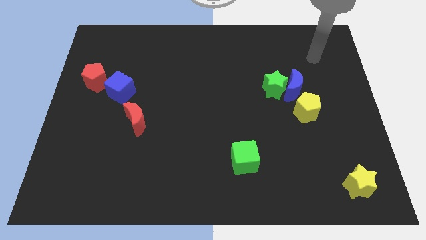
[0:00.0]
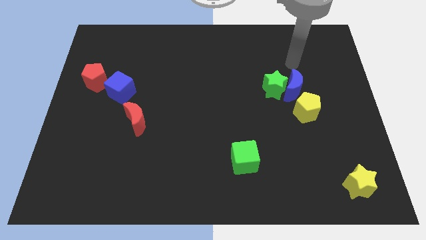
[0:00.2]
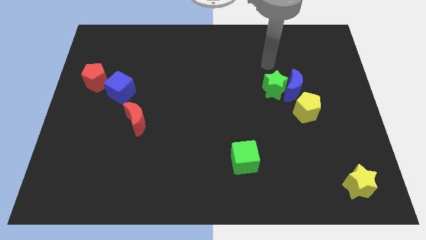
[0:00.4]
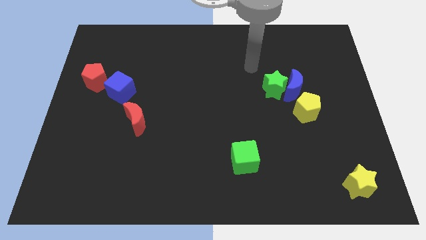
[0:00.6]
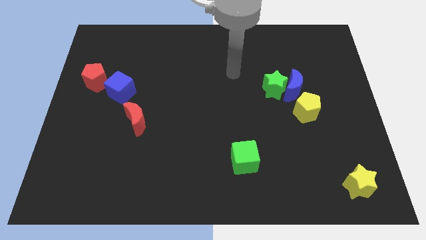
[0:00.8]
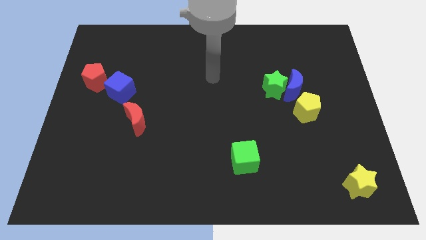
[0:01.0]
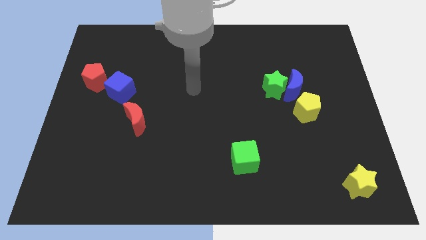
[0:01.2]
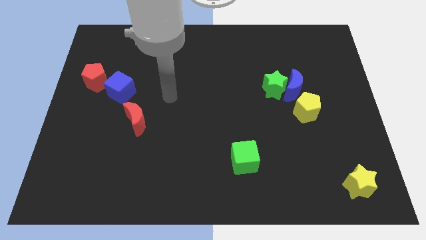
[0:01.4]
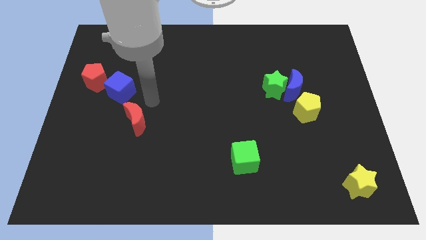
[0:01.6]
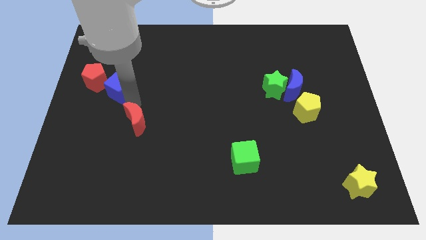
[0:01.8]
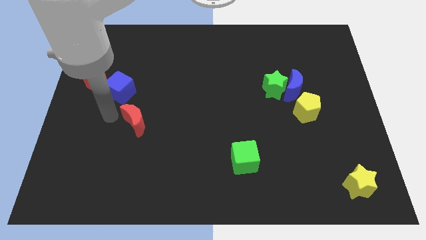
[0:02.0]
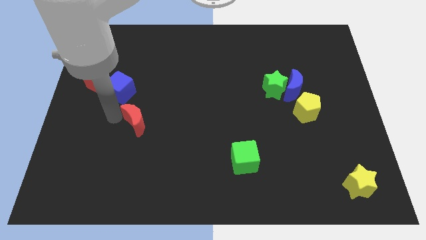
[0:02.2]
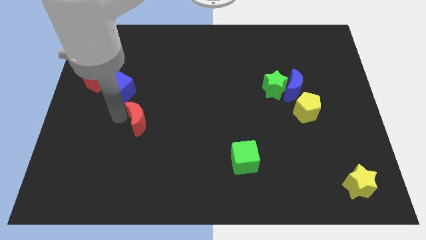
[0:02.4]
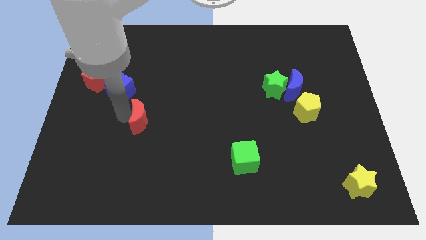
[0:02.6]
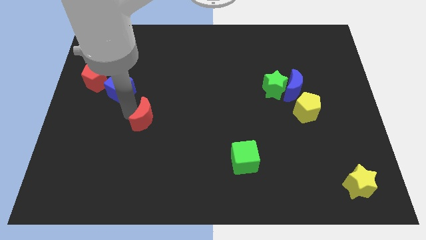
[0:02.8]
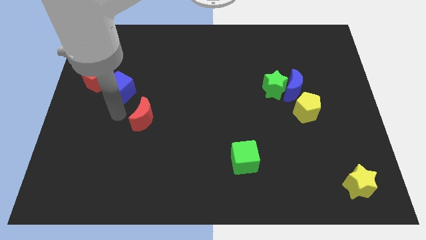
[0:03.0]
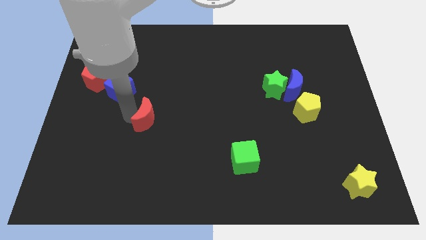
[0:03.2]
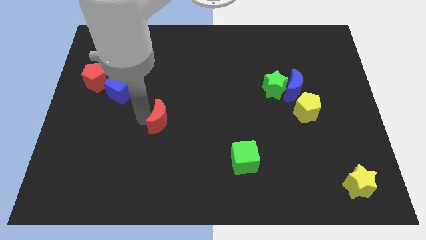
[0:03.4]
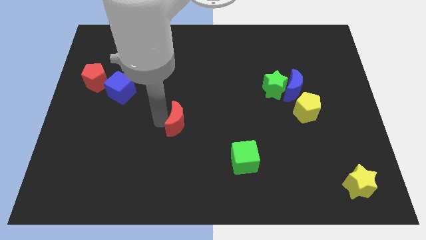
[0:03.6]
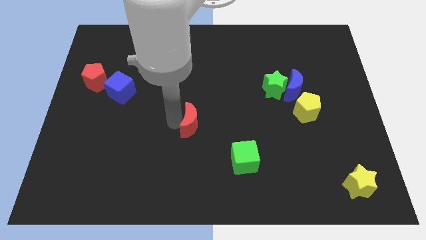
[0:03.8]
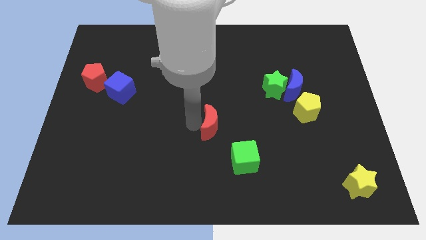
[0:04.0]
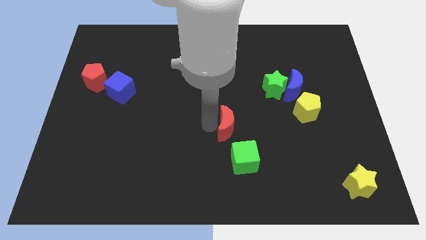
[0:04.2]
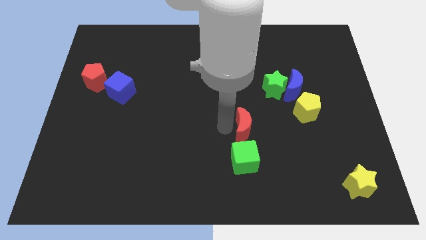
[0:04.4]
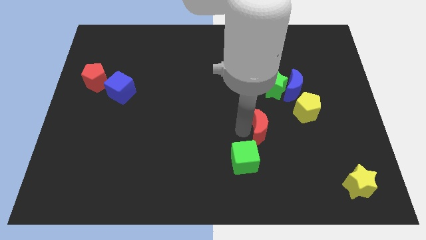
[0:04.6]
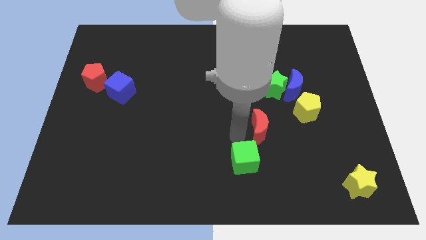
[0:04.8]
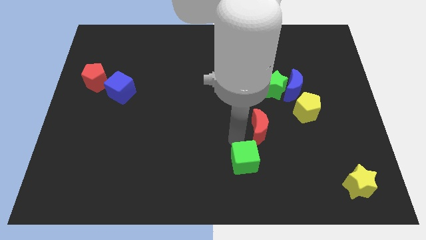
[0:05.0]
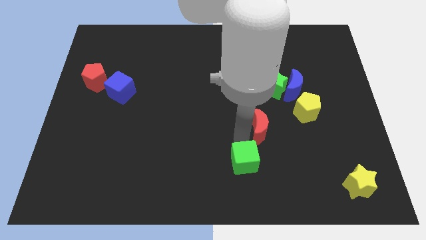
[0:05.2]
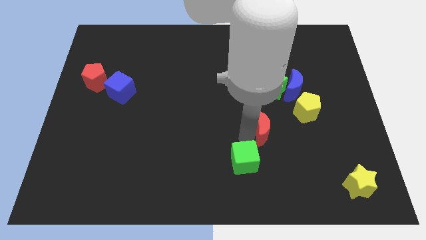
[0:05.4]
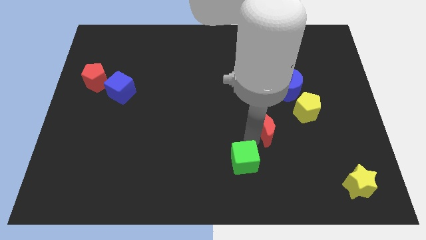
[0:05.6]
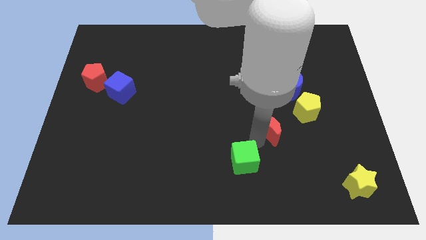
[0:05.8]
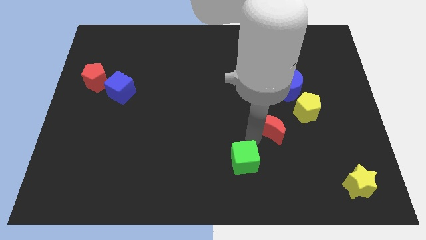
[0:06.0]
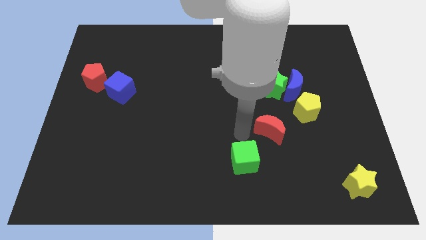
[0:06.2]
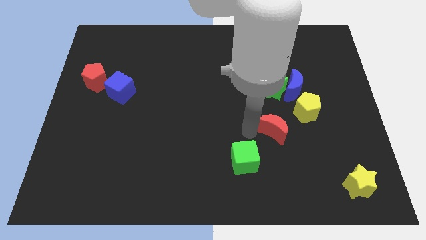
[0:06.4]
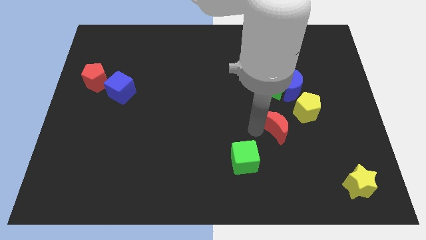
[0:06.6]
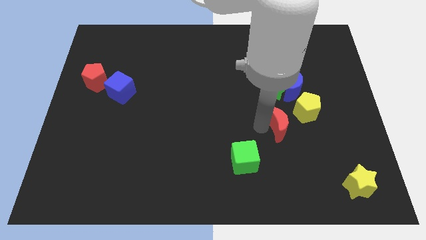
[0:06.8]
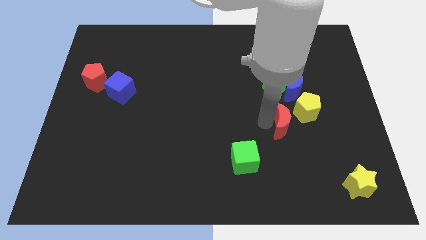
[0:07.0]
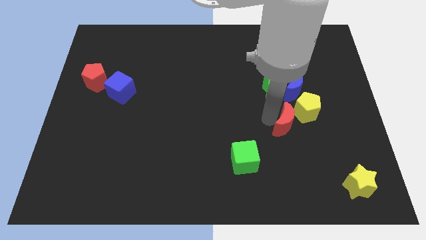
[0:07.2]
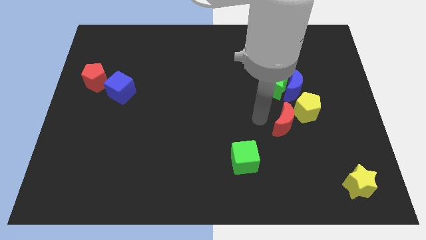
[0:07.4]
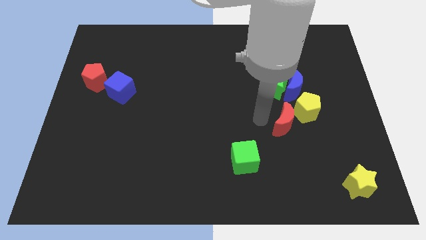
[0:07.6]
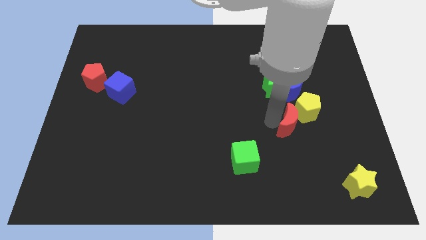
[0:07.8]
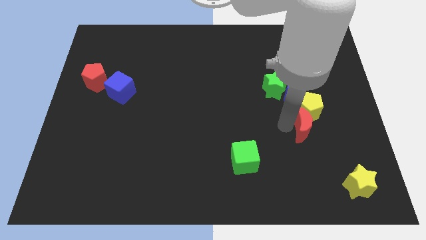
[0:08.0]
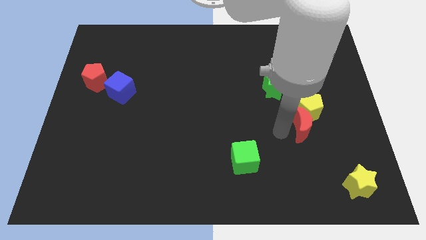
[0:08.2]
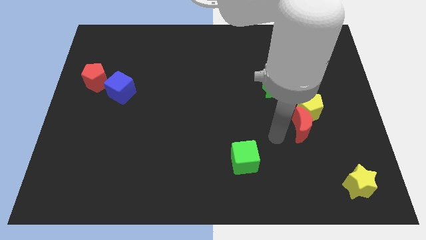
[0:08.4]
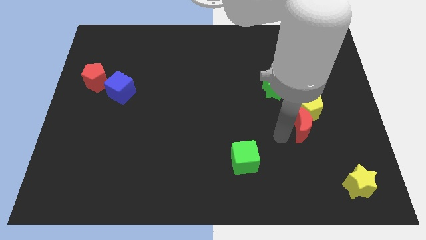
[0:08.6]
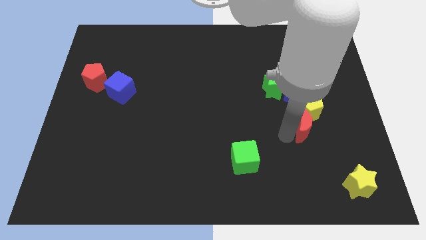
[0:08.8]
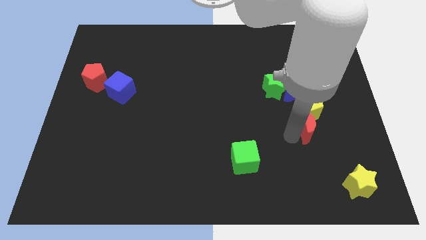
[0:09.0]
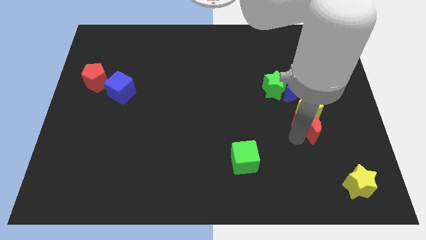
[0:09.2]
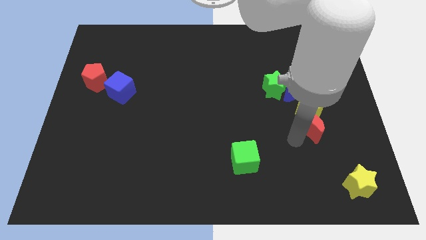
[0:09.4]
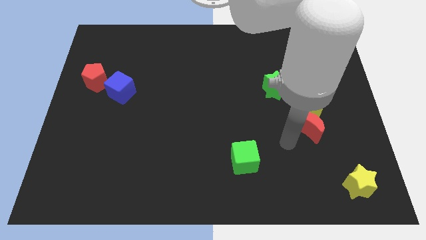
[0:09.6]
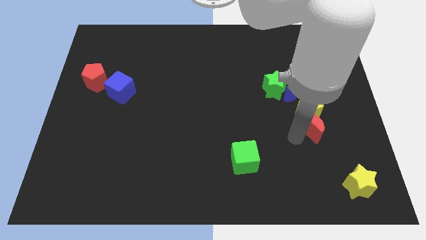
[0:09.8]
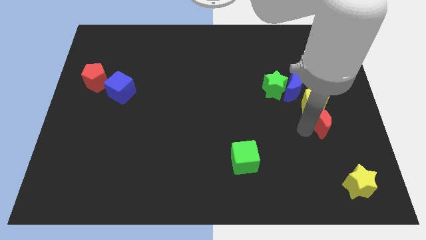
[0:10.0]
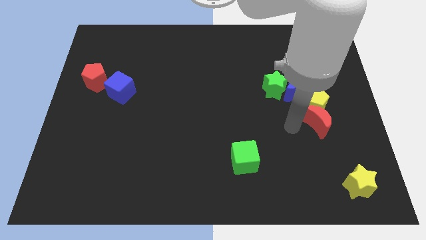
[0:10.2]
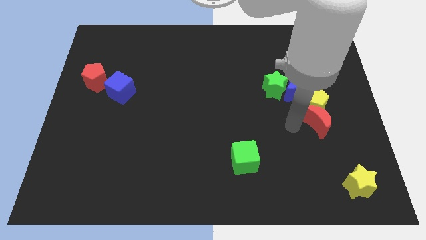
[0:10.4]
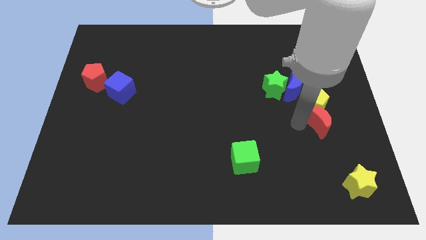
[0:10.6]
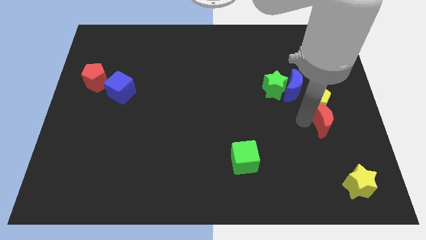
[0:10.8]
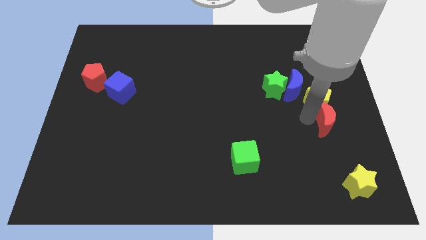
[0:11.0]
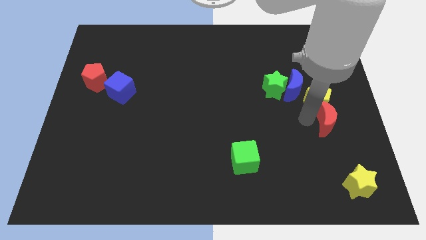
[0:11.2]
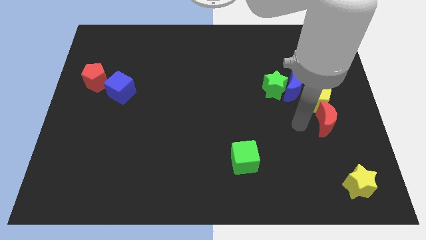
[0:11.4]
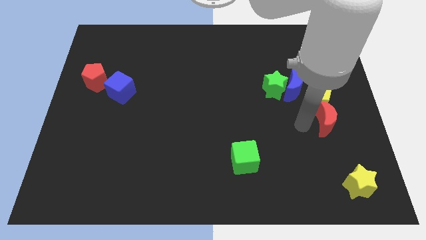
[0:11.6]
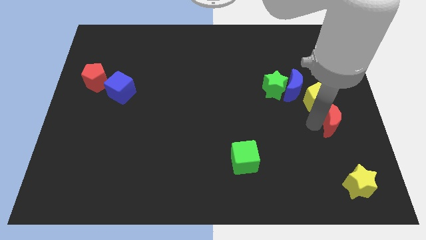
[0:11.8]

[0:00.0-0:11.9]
push the red moon to the right side of the board

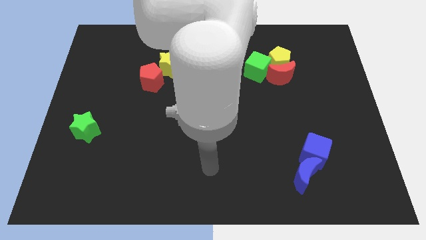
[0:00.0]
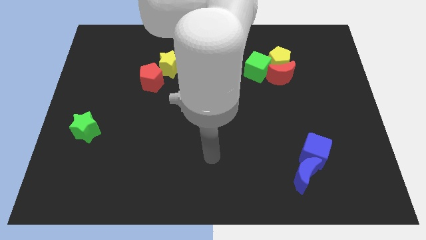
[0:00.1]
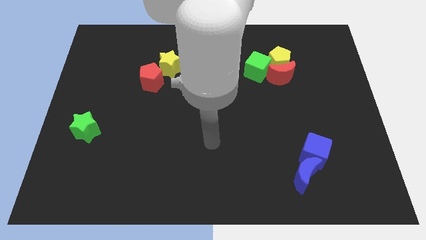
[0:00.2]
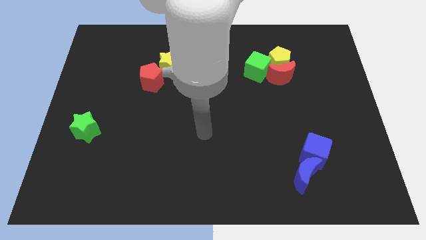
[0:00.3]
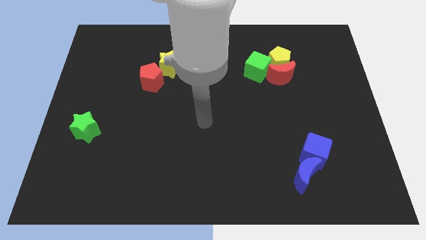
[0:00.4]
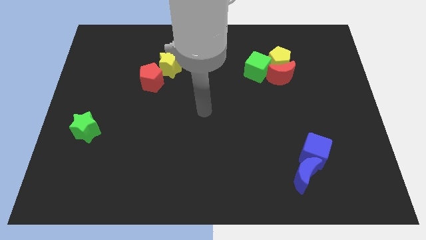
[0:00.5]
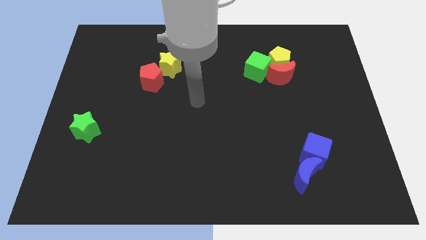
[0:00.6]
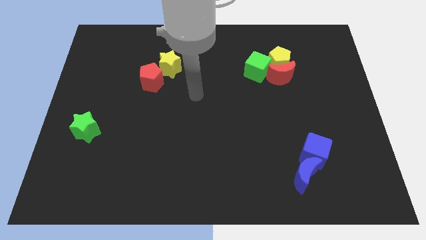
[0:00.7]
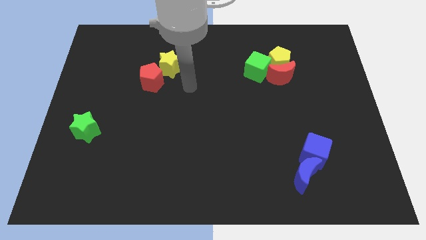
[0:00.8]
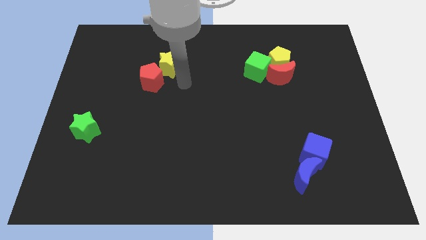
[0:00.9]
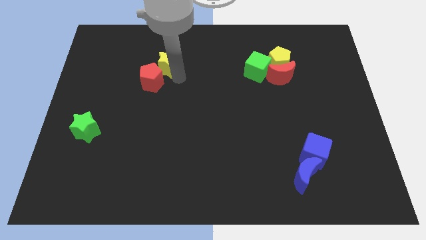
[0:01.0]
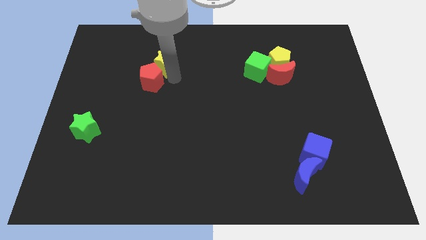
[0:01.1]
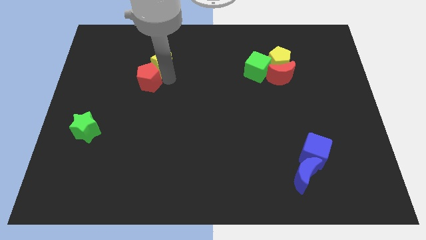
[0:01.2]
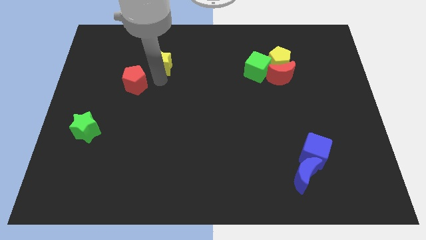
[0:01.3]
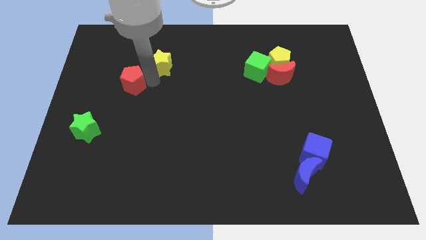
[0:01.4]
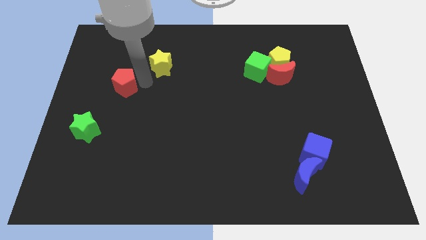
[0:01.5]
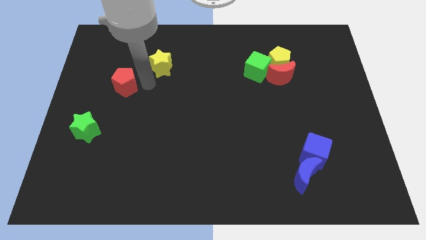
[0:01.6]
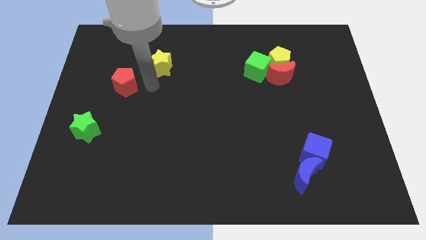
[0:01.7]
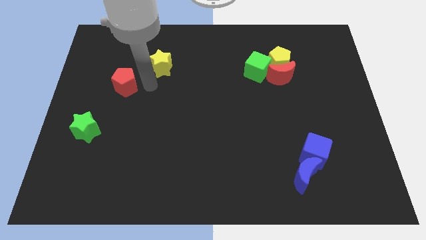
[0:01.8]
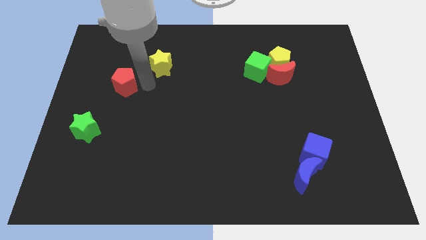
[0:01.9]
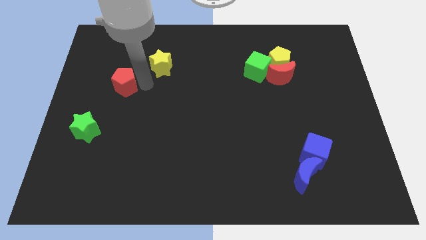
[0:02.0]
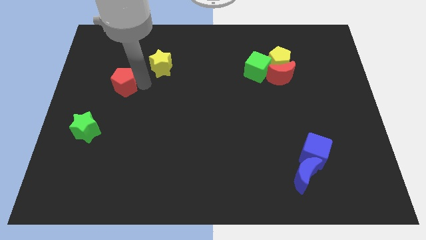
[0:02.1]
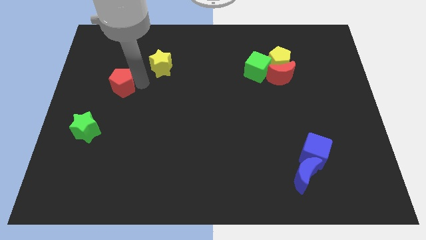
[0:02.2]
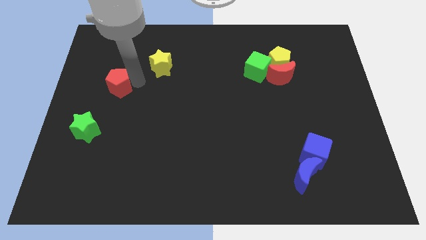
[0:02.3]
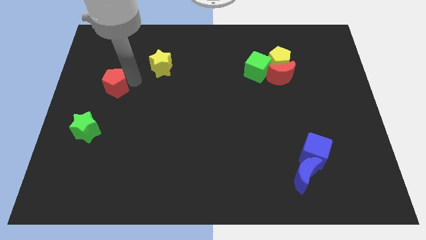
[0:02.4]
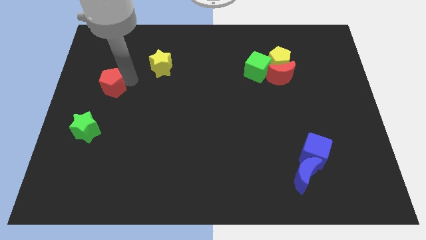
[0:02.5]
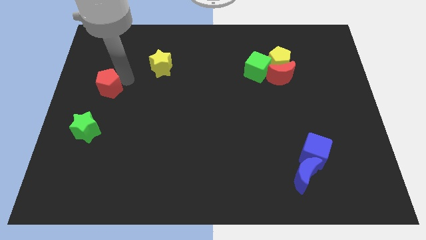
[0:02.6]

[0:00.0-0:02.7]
push the red pentagon to the center left
